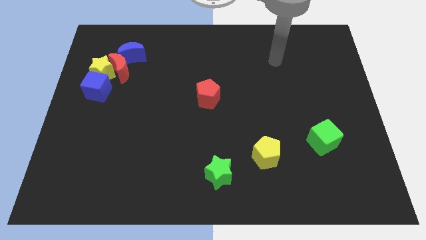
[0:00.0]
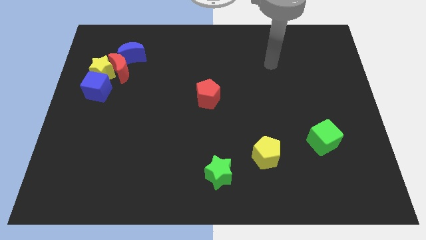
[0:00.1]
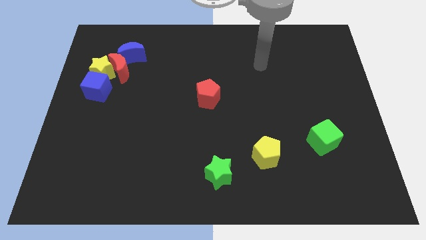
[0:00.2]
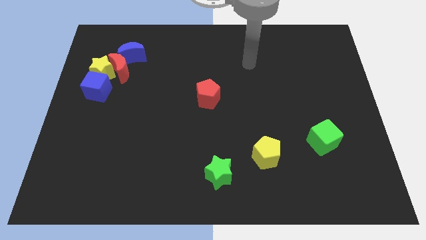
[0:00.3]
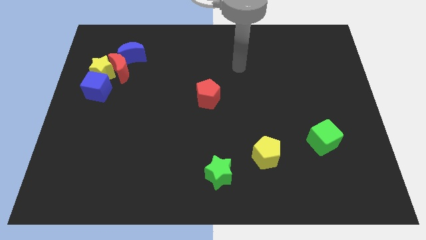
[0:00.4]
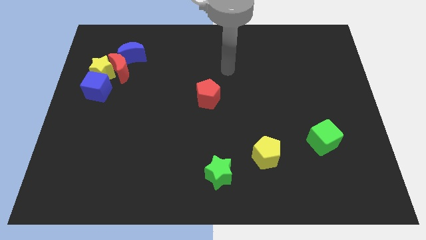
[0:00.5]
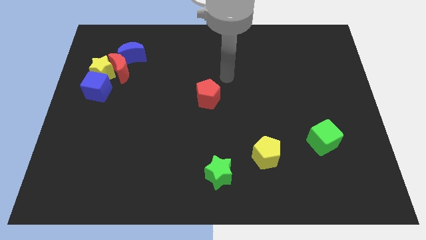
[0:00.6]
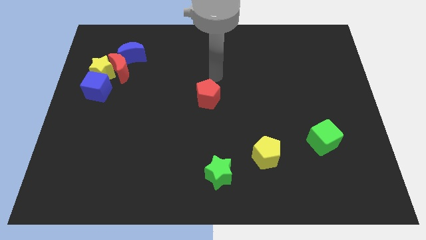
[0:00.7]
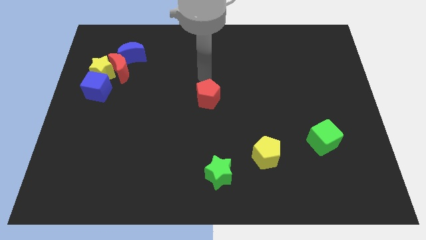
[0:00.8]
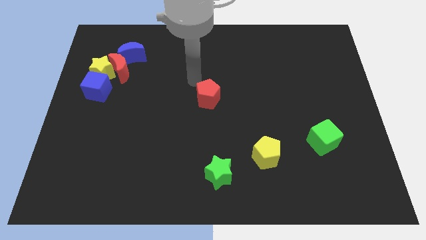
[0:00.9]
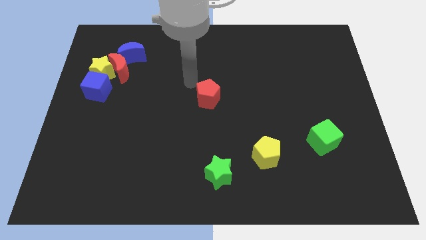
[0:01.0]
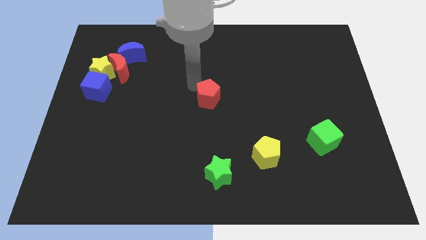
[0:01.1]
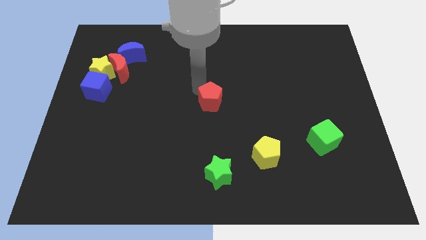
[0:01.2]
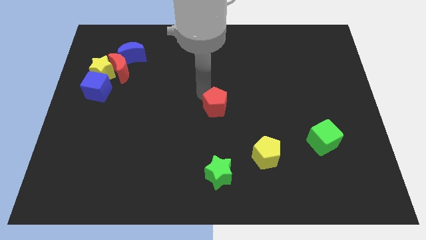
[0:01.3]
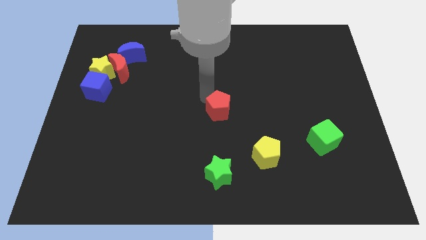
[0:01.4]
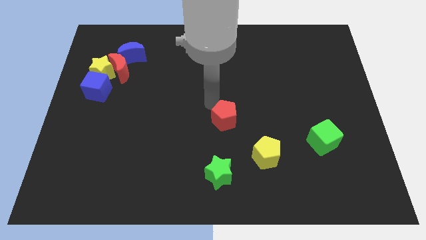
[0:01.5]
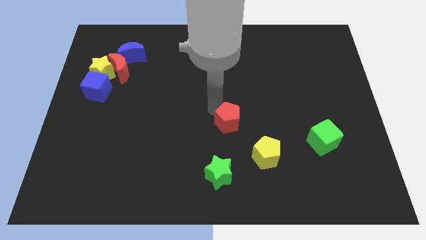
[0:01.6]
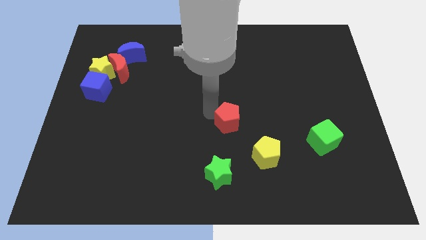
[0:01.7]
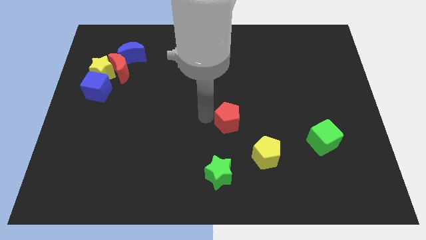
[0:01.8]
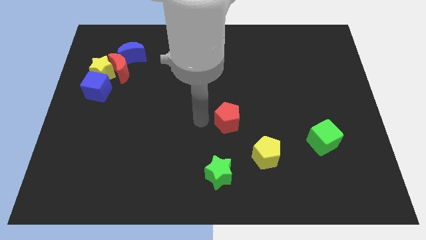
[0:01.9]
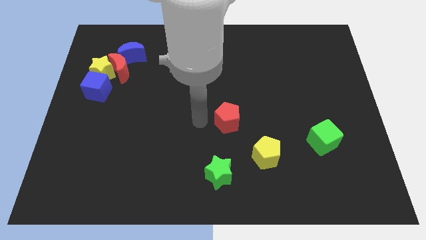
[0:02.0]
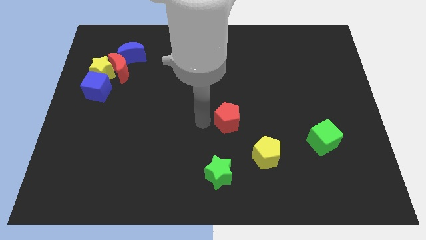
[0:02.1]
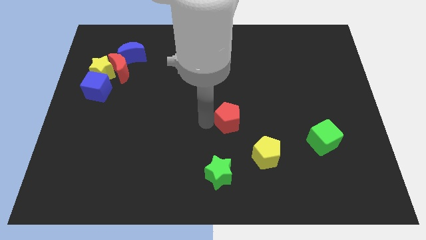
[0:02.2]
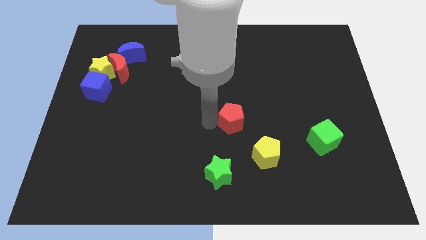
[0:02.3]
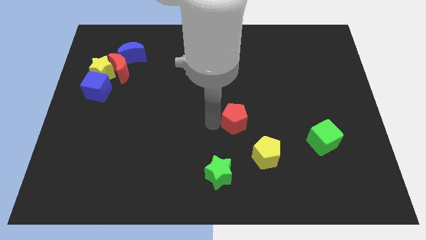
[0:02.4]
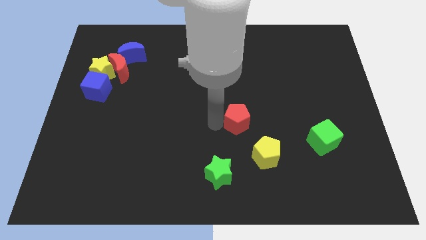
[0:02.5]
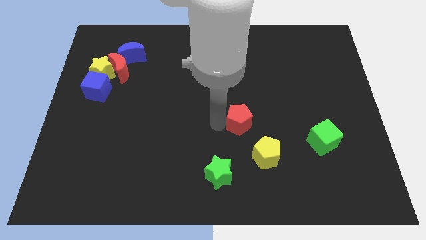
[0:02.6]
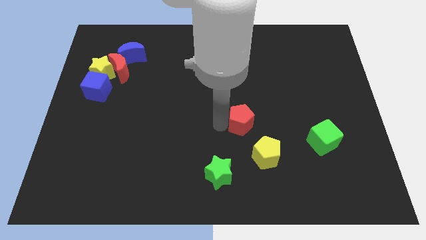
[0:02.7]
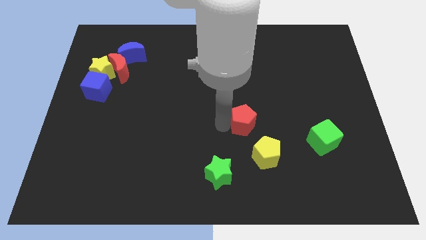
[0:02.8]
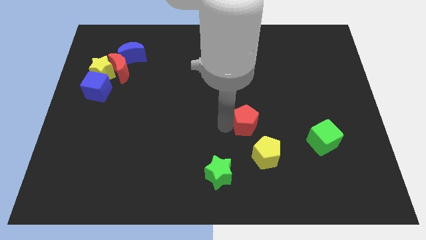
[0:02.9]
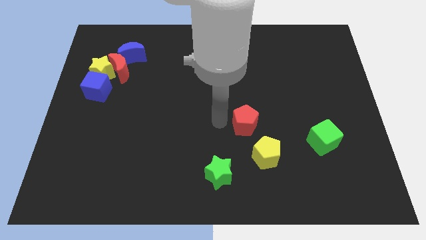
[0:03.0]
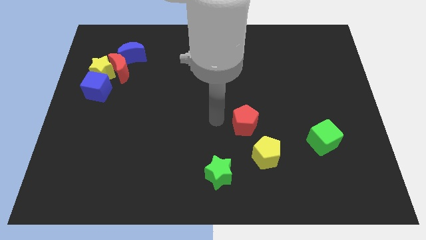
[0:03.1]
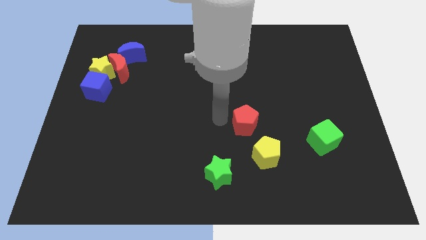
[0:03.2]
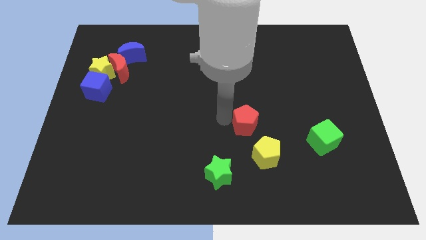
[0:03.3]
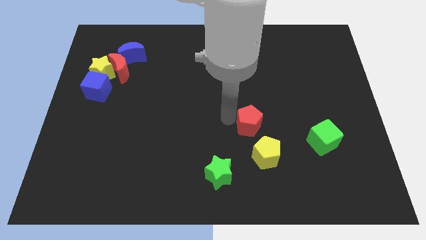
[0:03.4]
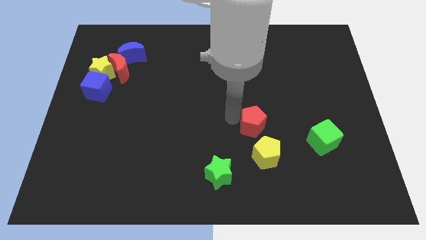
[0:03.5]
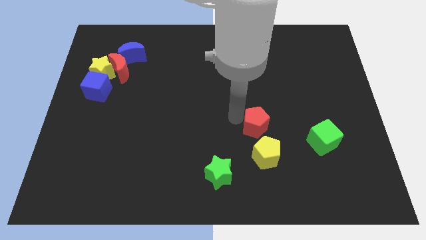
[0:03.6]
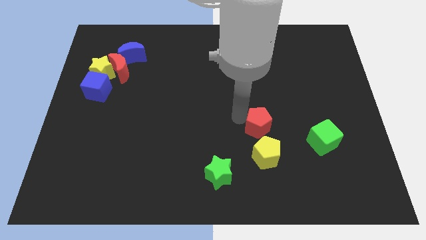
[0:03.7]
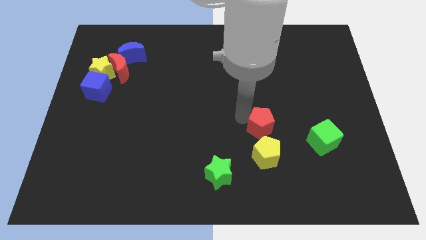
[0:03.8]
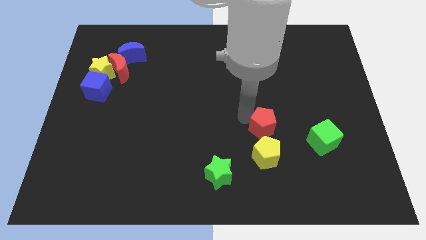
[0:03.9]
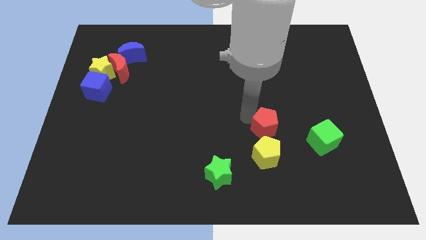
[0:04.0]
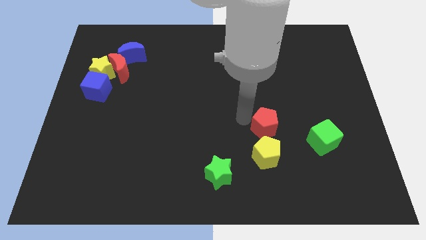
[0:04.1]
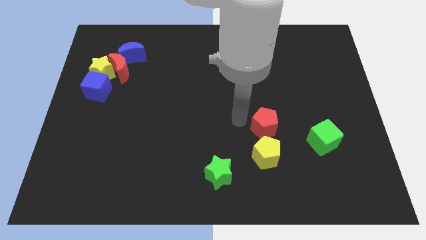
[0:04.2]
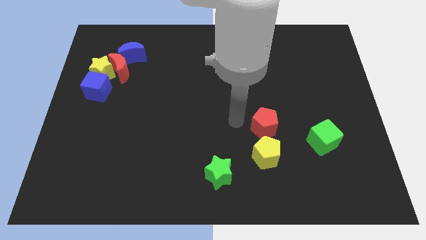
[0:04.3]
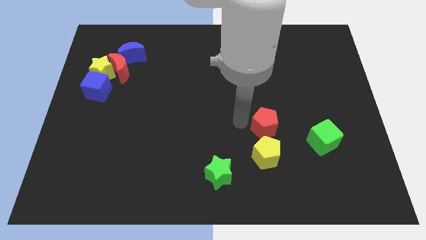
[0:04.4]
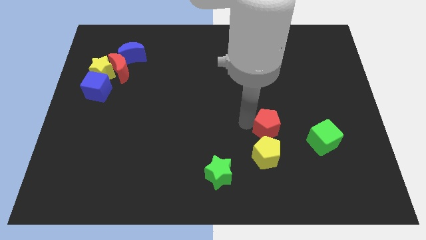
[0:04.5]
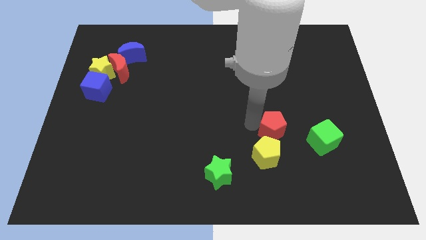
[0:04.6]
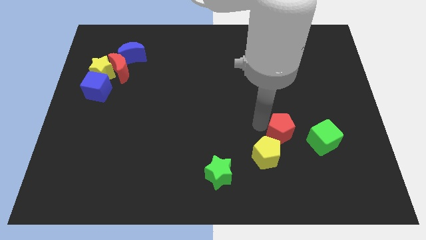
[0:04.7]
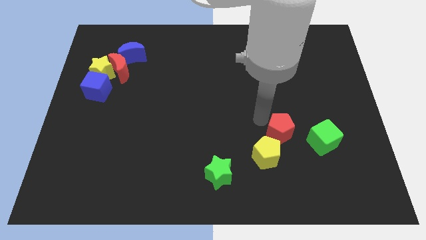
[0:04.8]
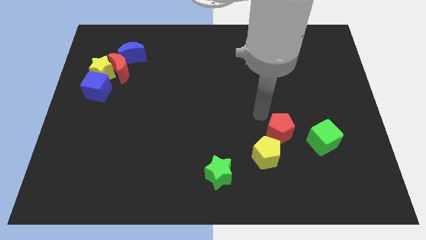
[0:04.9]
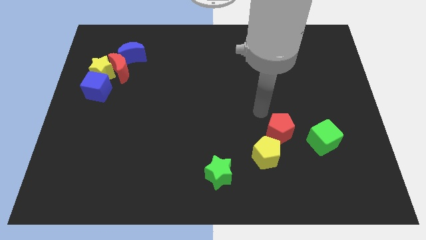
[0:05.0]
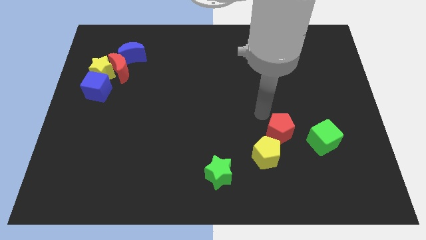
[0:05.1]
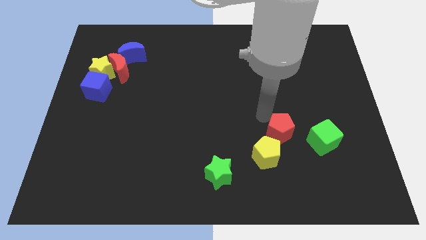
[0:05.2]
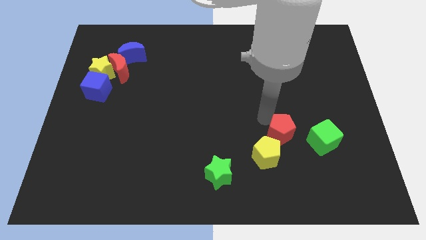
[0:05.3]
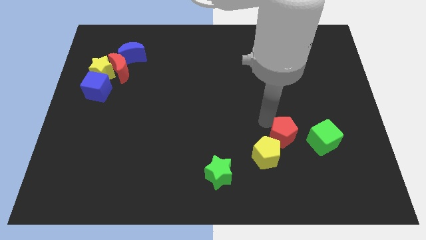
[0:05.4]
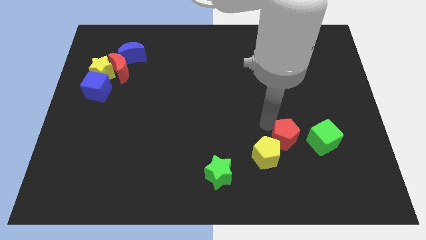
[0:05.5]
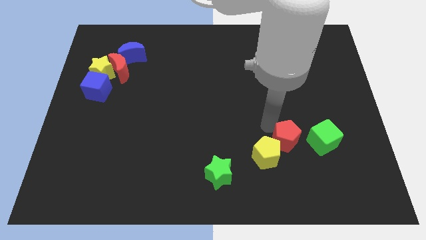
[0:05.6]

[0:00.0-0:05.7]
move the red pentagon downwards and right

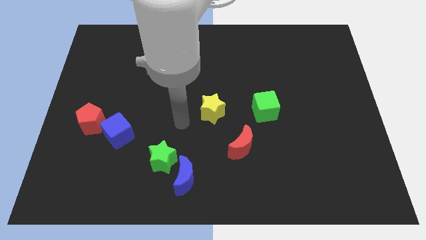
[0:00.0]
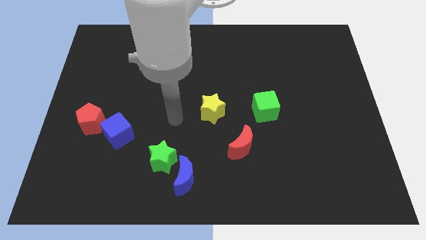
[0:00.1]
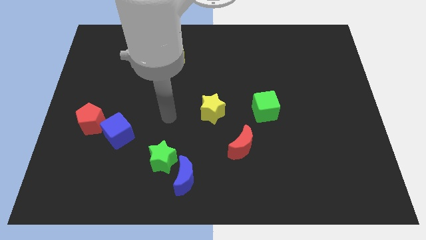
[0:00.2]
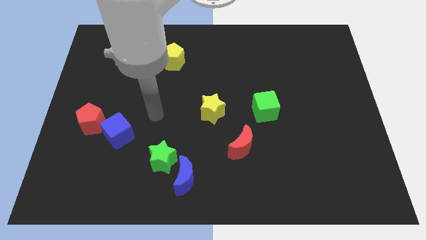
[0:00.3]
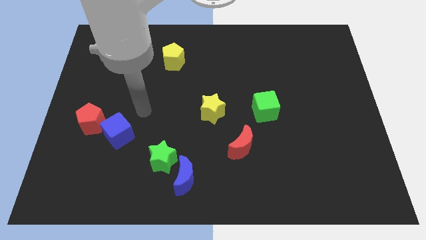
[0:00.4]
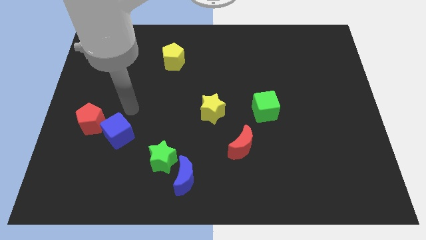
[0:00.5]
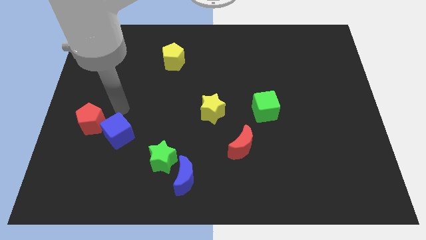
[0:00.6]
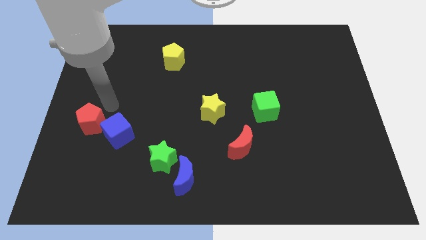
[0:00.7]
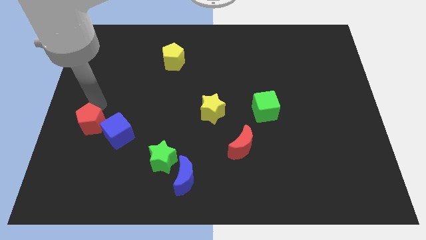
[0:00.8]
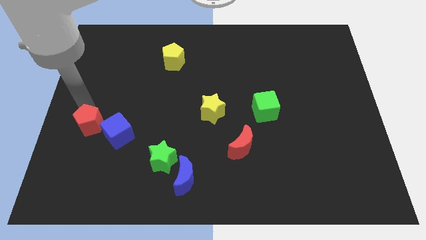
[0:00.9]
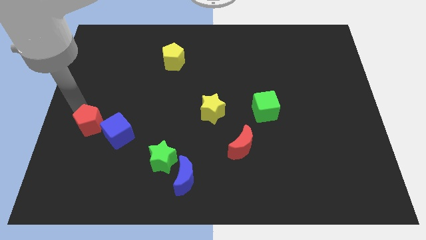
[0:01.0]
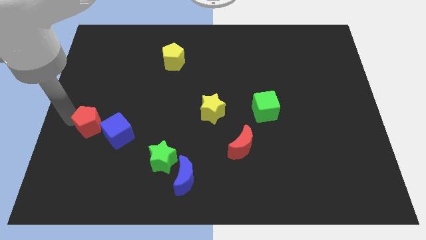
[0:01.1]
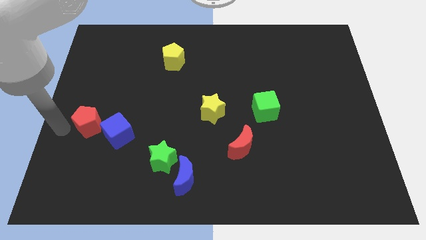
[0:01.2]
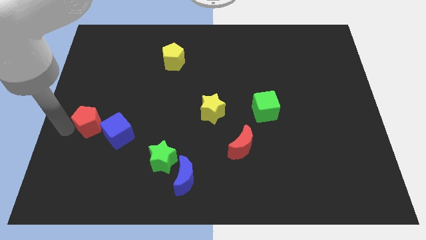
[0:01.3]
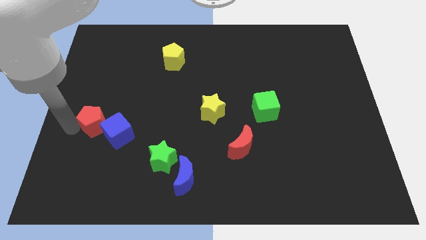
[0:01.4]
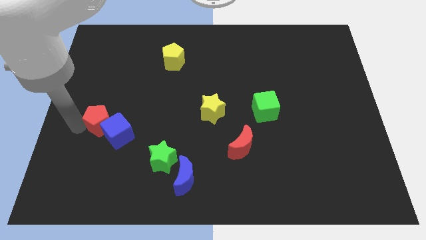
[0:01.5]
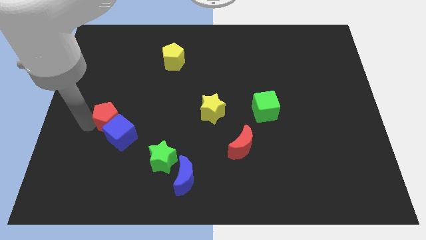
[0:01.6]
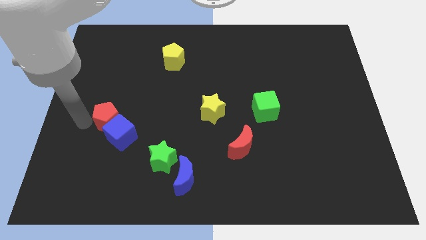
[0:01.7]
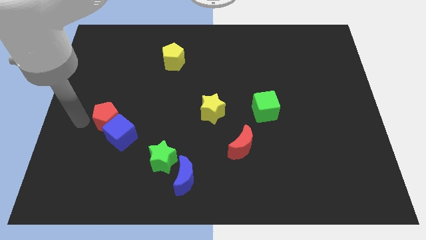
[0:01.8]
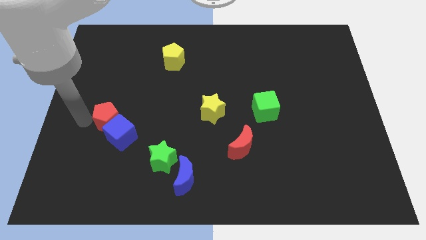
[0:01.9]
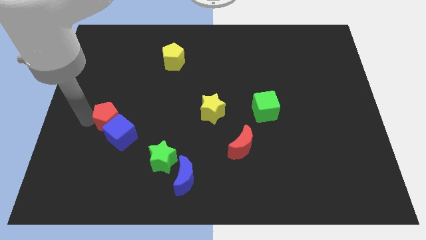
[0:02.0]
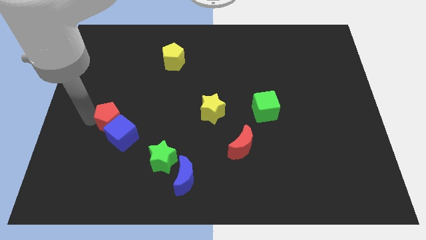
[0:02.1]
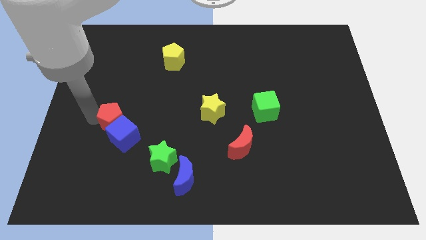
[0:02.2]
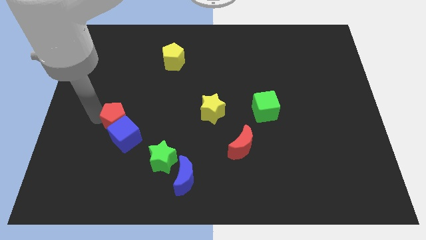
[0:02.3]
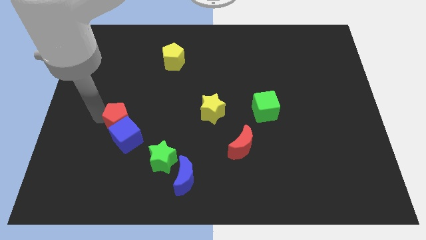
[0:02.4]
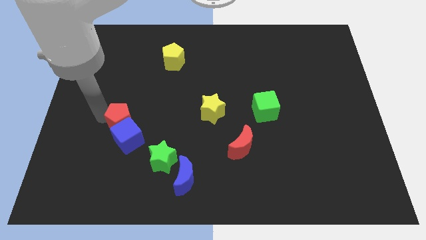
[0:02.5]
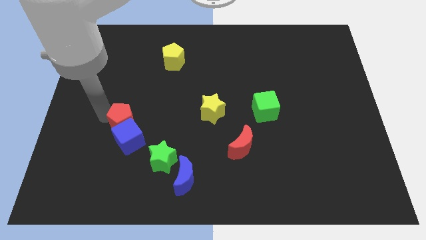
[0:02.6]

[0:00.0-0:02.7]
slightly move the red pentagon to the right
